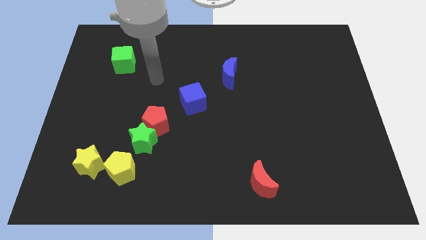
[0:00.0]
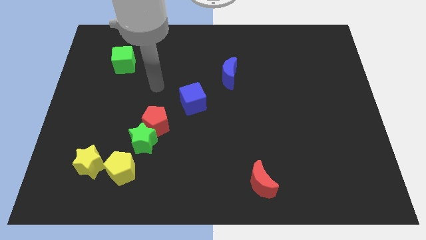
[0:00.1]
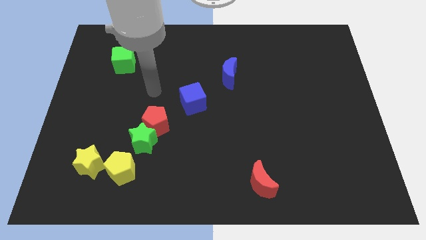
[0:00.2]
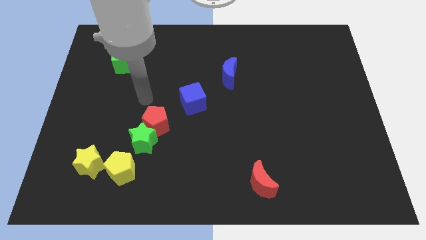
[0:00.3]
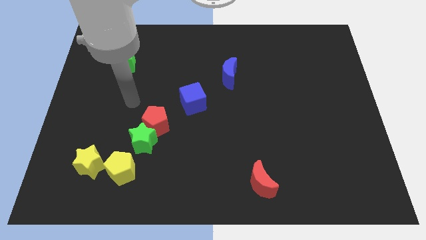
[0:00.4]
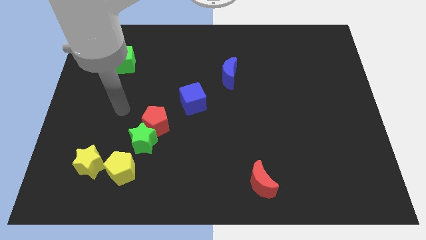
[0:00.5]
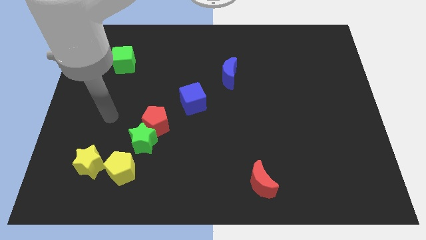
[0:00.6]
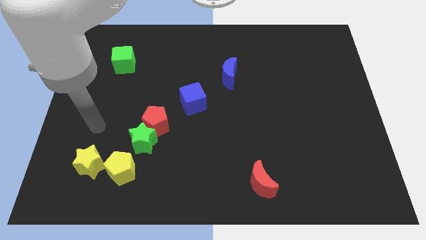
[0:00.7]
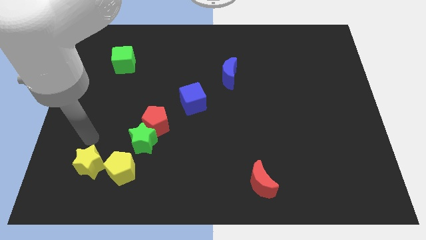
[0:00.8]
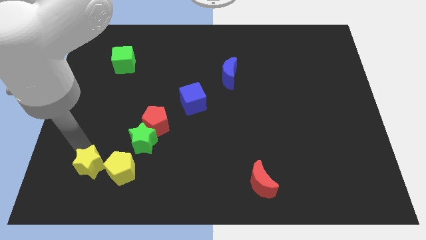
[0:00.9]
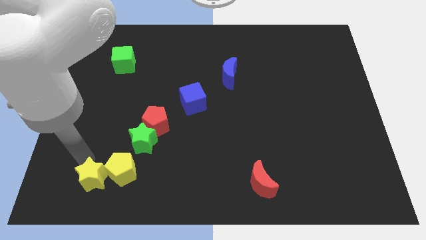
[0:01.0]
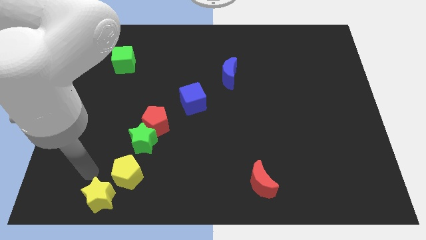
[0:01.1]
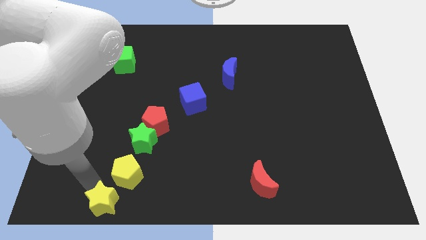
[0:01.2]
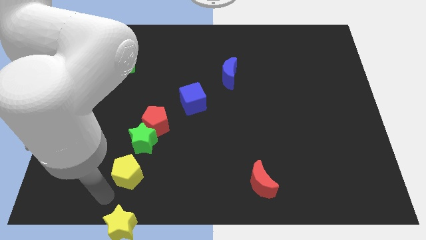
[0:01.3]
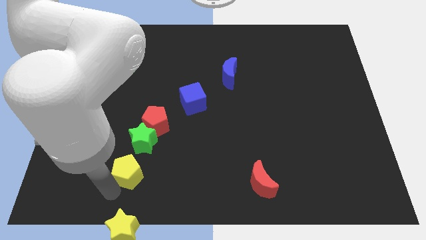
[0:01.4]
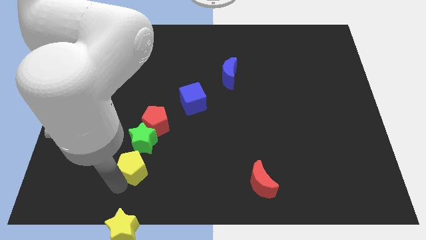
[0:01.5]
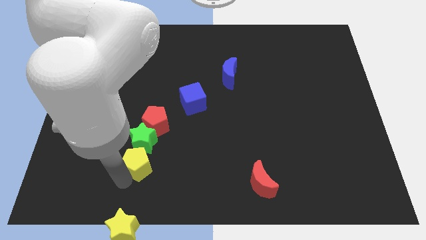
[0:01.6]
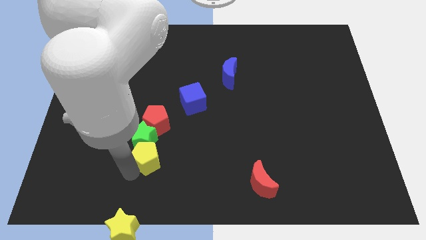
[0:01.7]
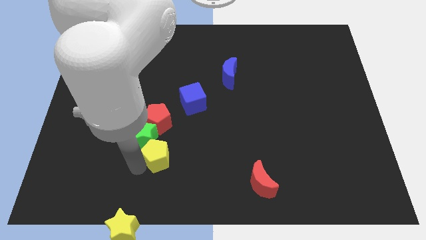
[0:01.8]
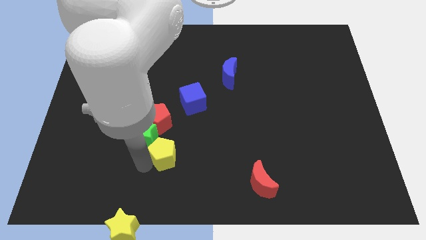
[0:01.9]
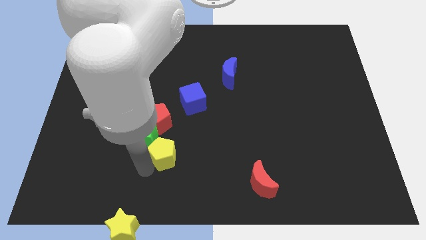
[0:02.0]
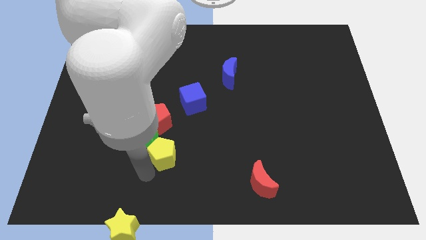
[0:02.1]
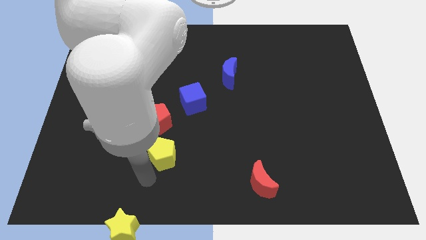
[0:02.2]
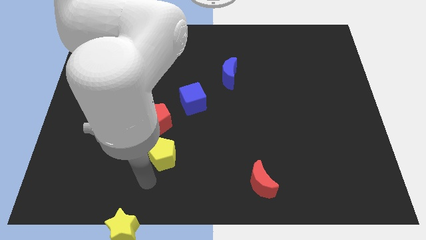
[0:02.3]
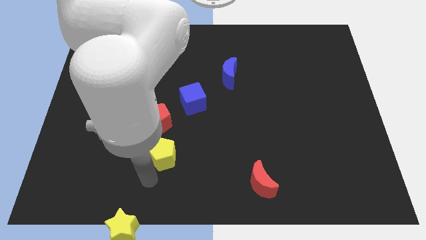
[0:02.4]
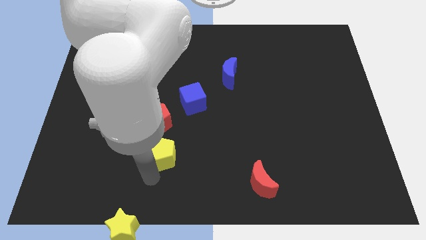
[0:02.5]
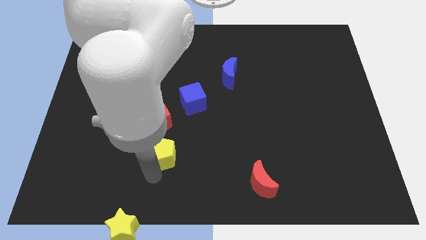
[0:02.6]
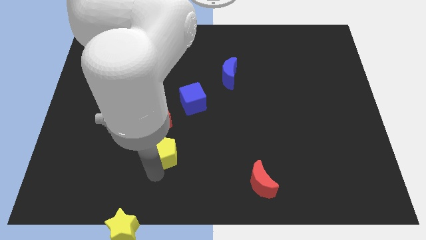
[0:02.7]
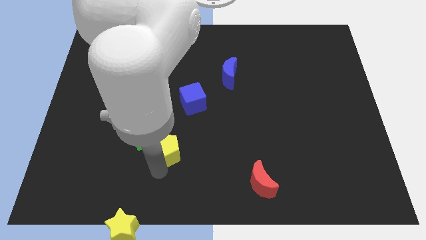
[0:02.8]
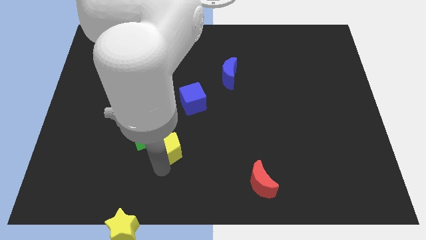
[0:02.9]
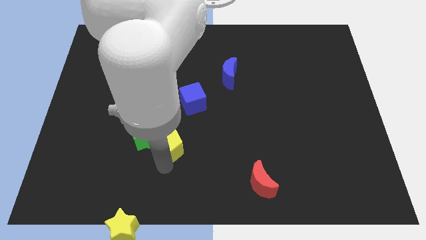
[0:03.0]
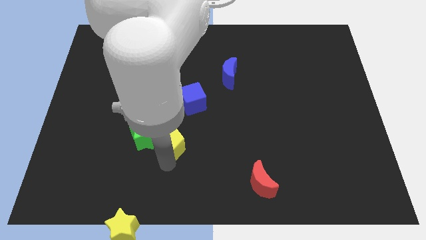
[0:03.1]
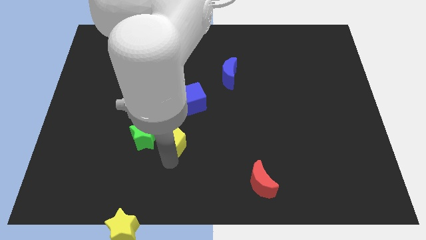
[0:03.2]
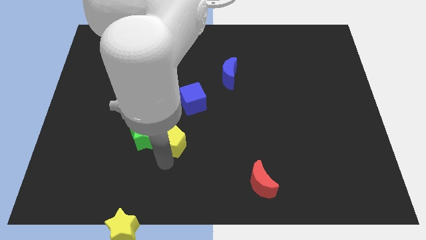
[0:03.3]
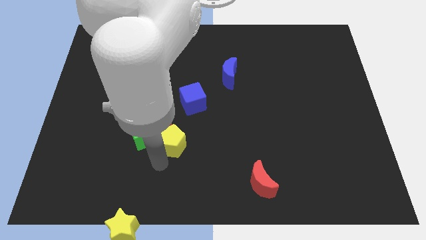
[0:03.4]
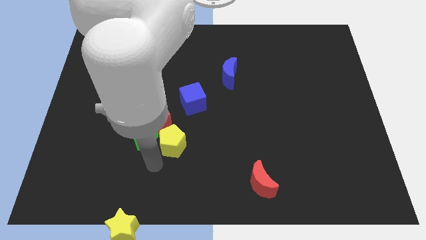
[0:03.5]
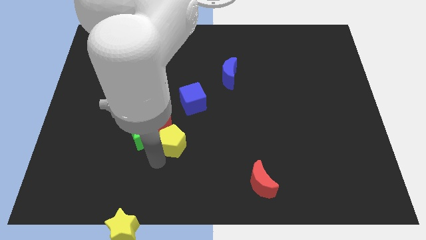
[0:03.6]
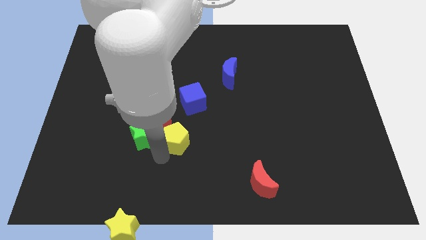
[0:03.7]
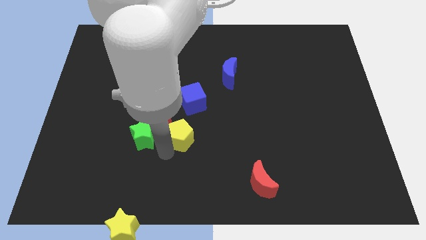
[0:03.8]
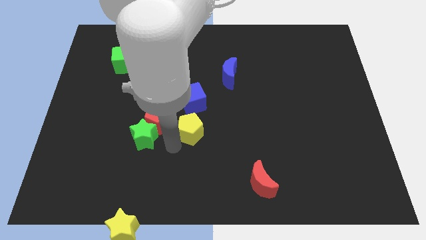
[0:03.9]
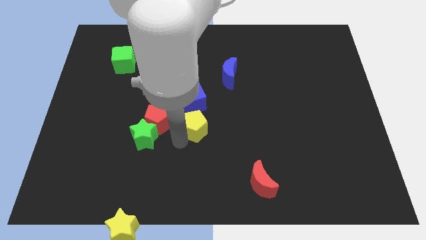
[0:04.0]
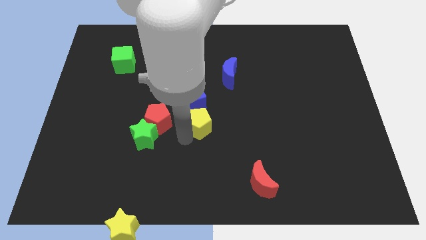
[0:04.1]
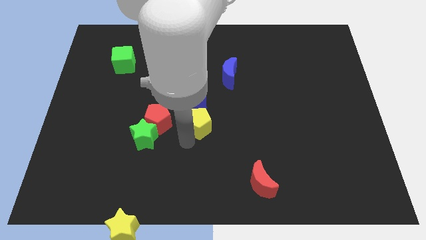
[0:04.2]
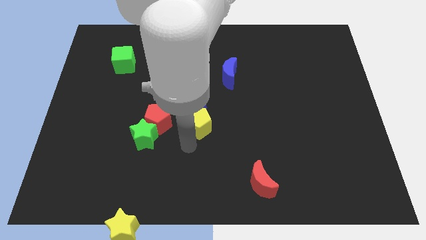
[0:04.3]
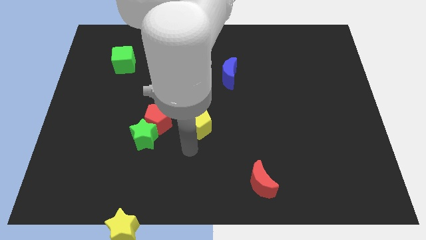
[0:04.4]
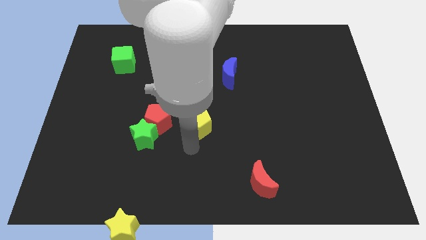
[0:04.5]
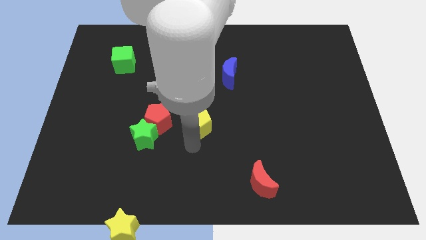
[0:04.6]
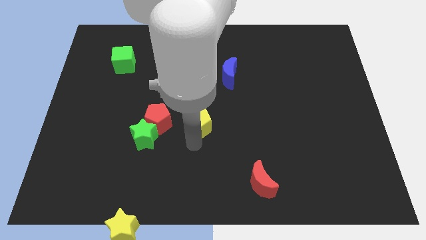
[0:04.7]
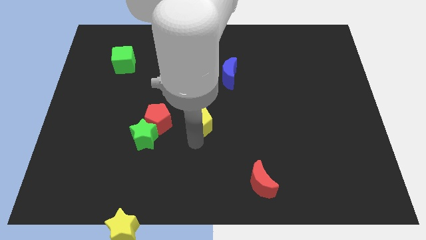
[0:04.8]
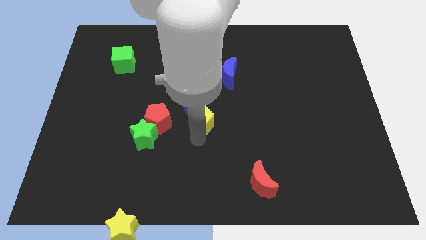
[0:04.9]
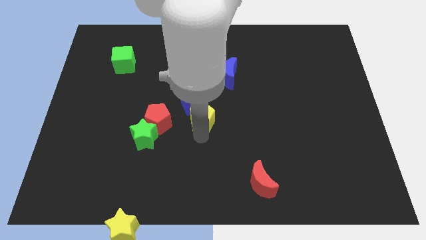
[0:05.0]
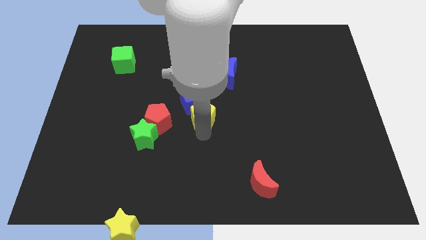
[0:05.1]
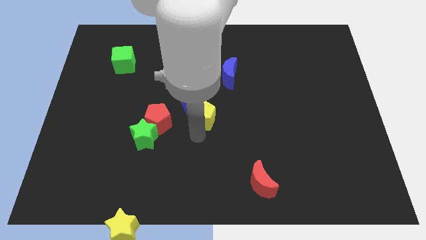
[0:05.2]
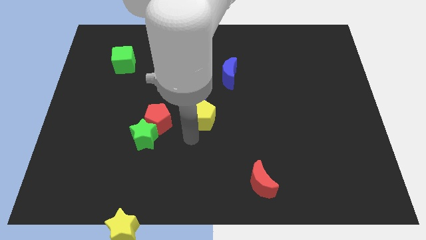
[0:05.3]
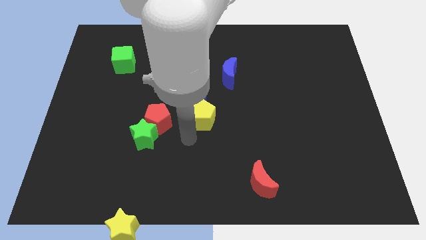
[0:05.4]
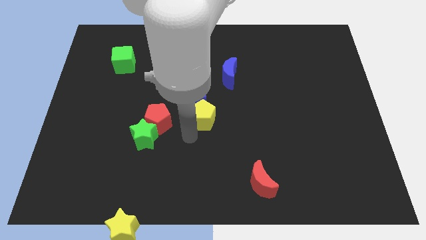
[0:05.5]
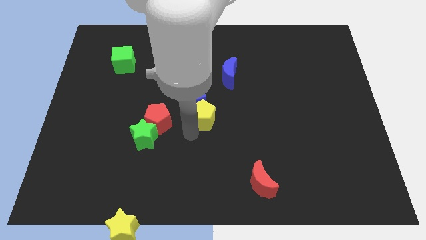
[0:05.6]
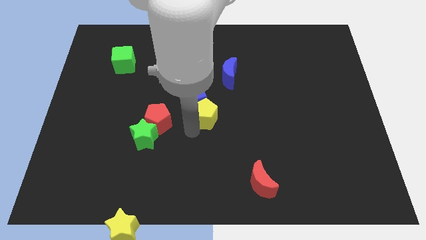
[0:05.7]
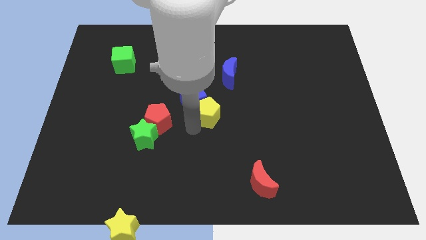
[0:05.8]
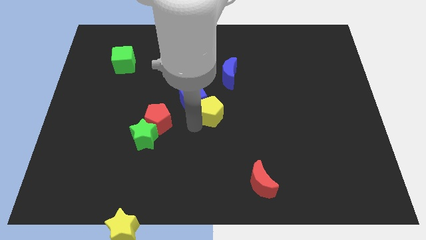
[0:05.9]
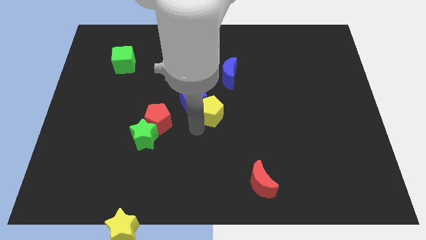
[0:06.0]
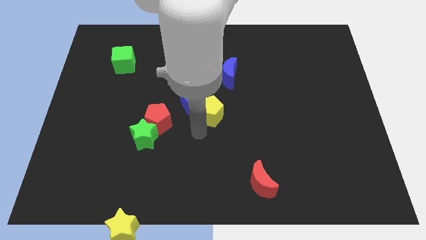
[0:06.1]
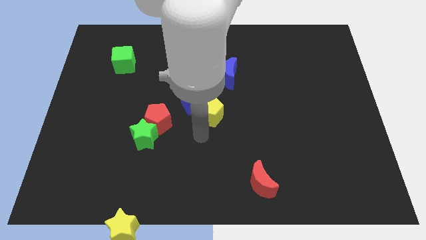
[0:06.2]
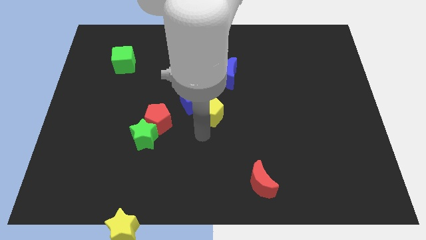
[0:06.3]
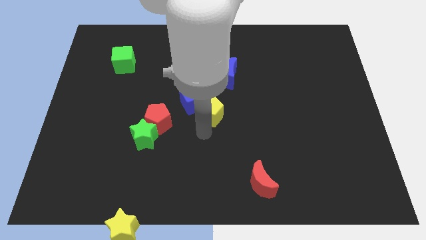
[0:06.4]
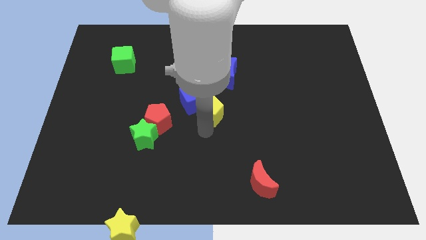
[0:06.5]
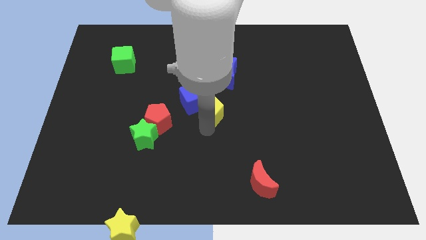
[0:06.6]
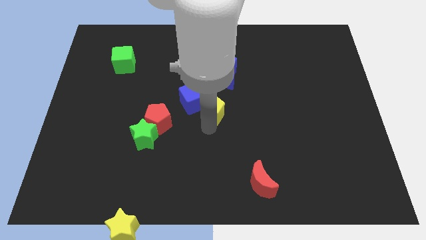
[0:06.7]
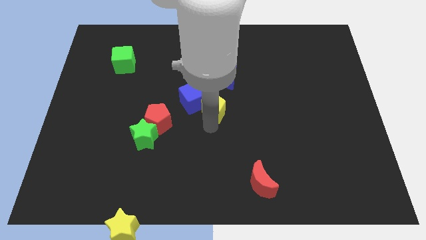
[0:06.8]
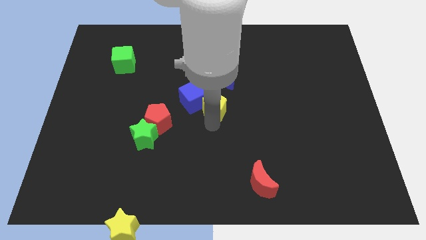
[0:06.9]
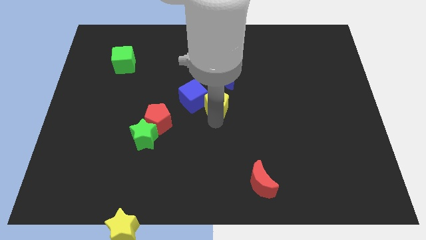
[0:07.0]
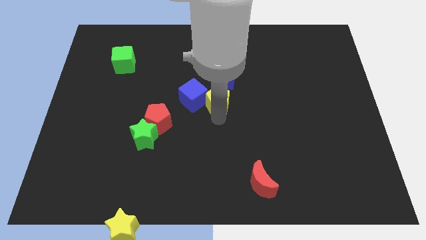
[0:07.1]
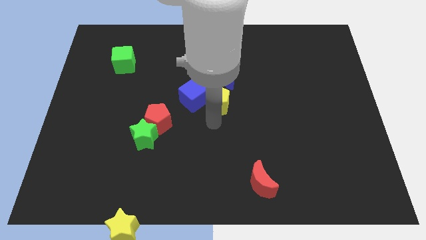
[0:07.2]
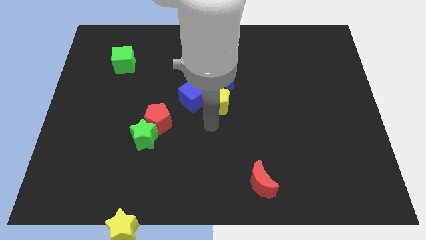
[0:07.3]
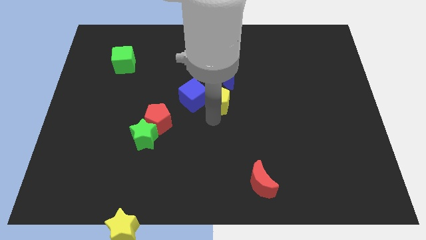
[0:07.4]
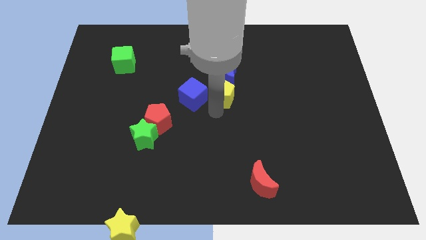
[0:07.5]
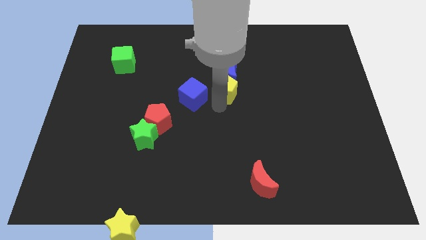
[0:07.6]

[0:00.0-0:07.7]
move the yellow pentagon next to the blue moon
